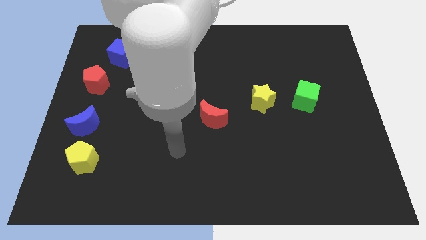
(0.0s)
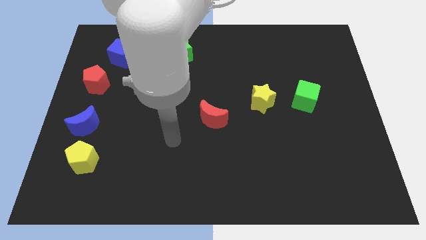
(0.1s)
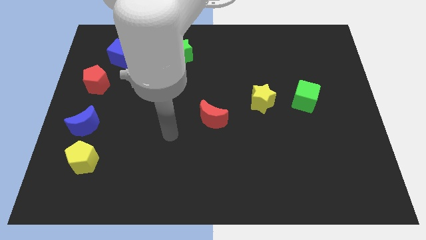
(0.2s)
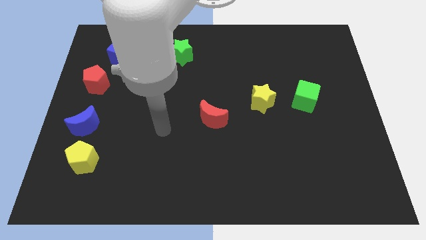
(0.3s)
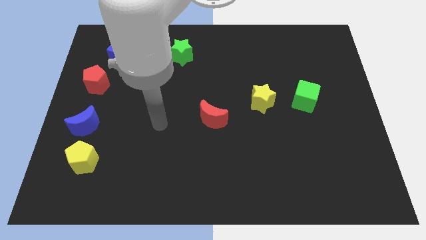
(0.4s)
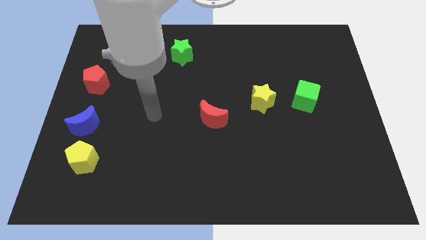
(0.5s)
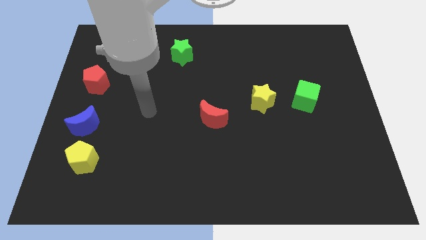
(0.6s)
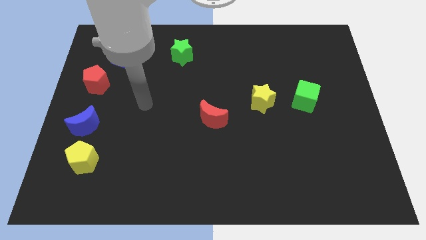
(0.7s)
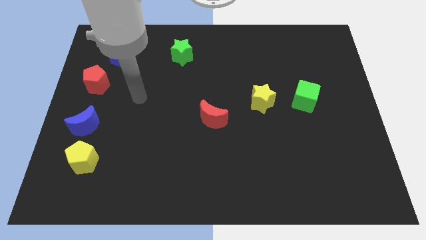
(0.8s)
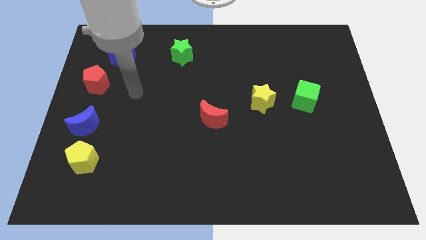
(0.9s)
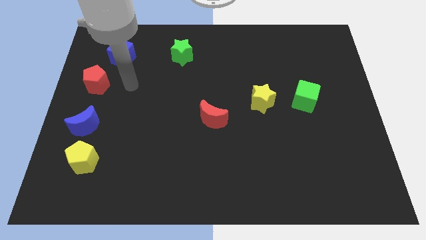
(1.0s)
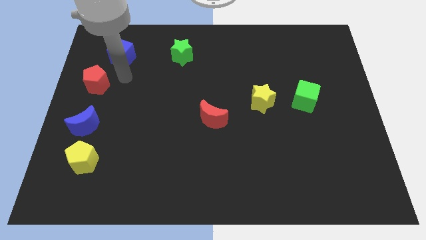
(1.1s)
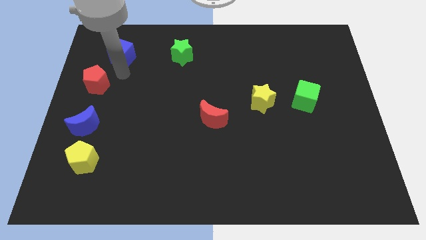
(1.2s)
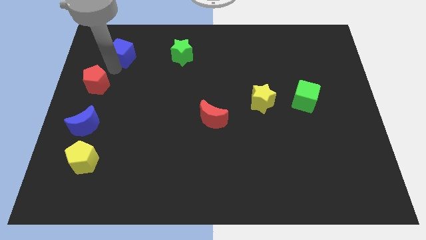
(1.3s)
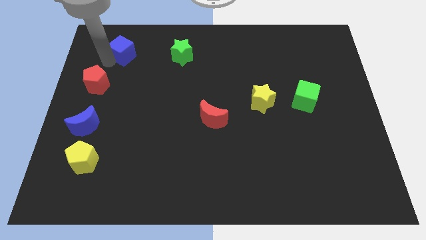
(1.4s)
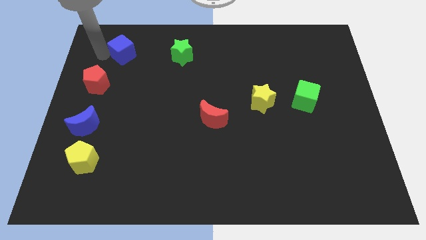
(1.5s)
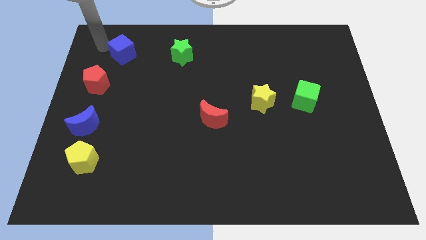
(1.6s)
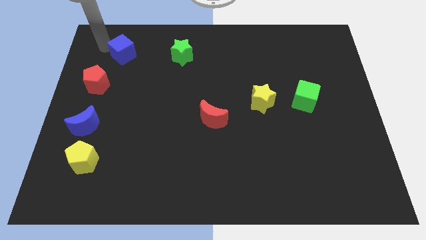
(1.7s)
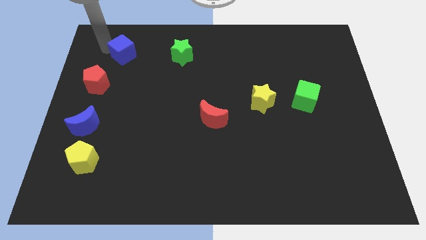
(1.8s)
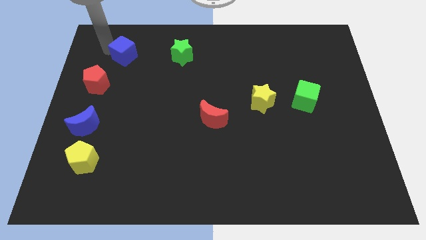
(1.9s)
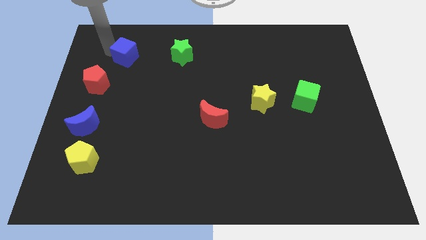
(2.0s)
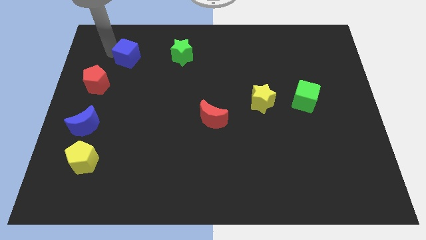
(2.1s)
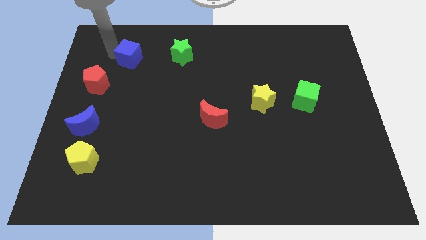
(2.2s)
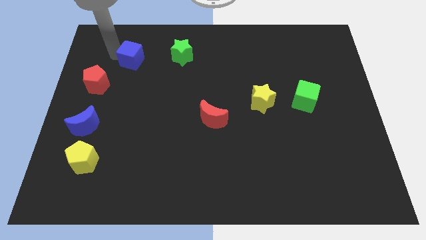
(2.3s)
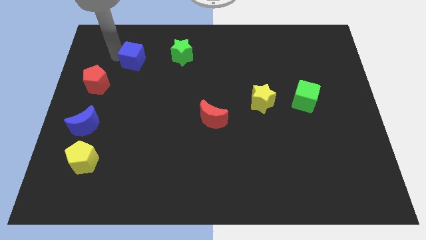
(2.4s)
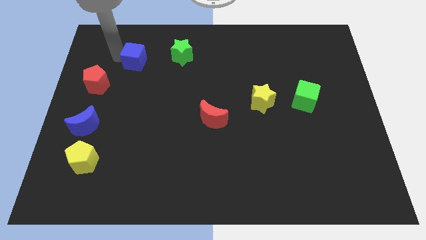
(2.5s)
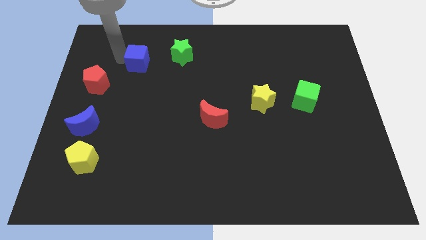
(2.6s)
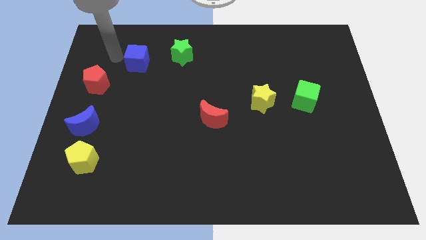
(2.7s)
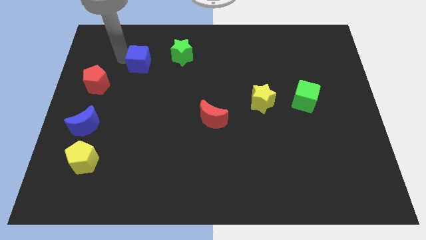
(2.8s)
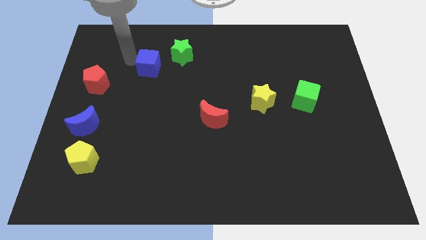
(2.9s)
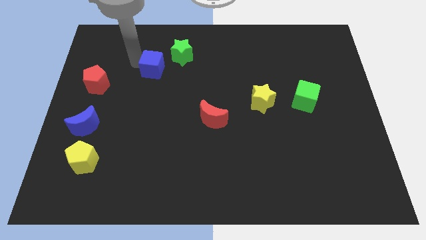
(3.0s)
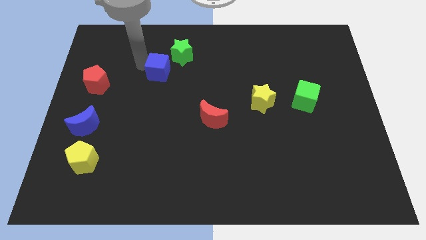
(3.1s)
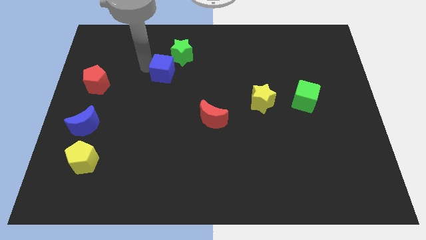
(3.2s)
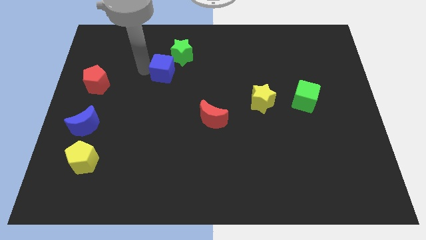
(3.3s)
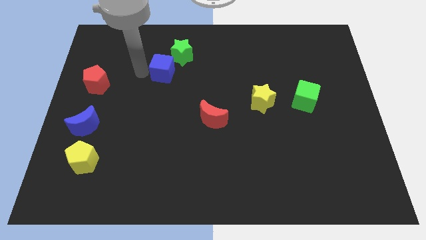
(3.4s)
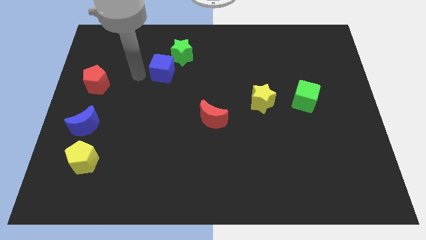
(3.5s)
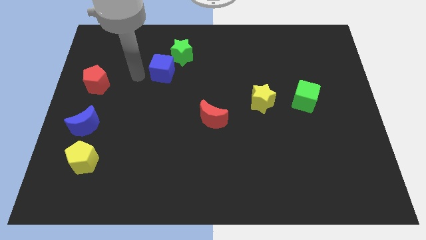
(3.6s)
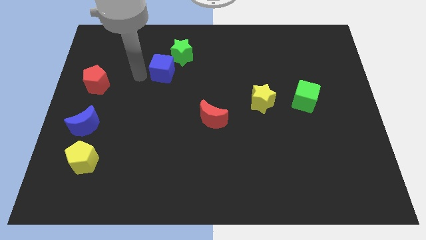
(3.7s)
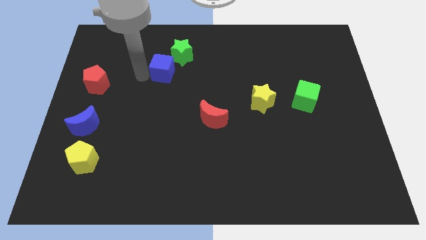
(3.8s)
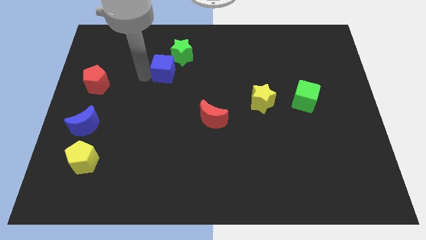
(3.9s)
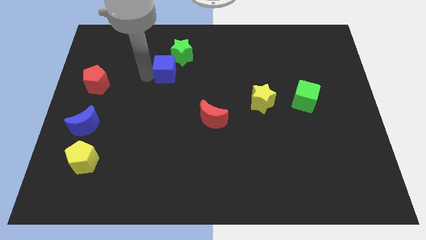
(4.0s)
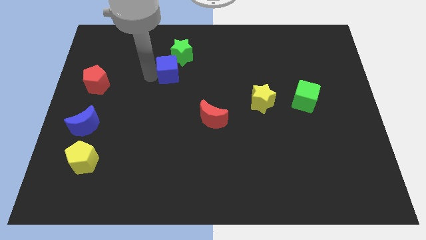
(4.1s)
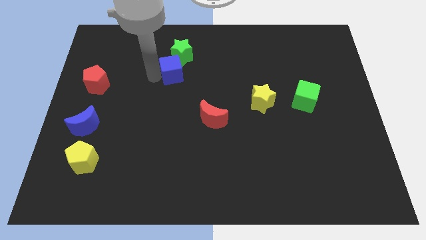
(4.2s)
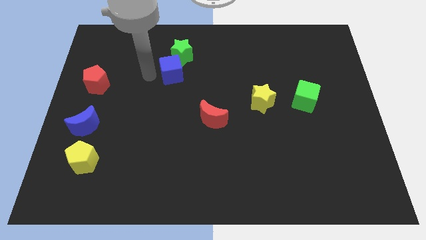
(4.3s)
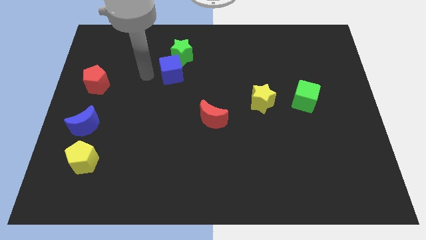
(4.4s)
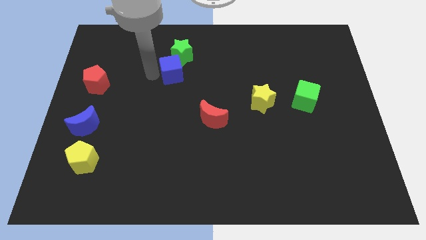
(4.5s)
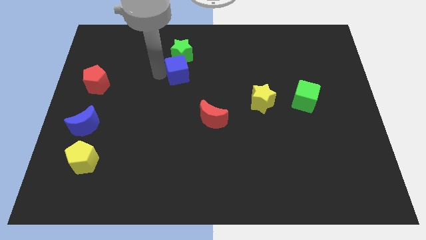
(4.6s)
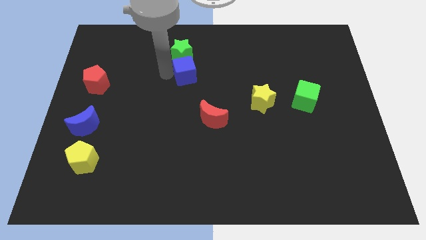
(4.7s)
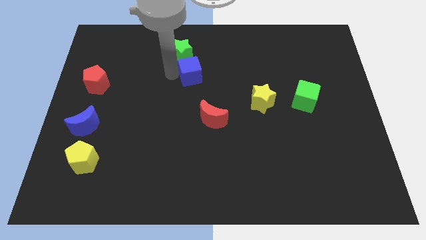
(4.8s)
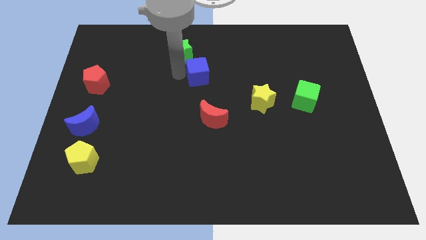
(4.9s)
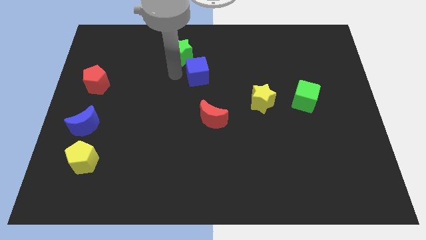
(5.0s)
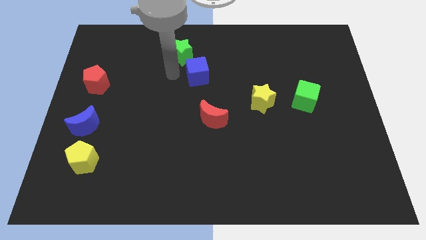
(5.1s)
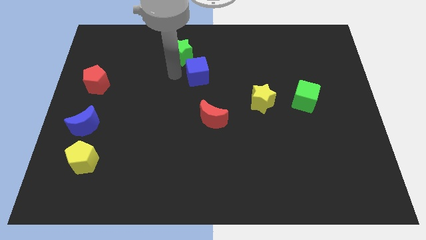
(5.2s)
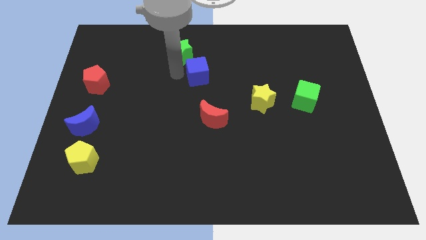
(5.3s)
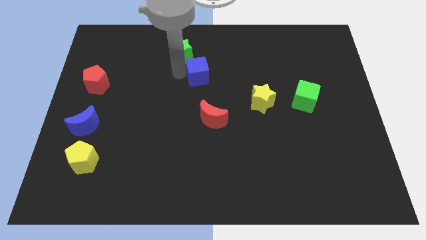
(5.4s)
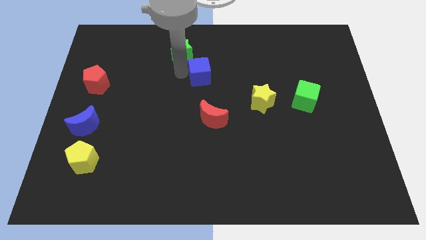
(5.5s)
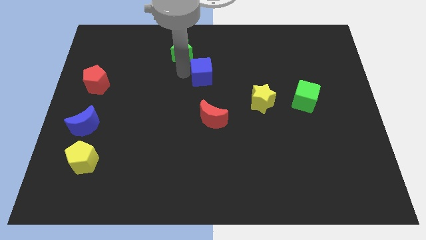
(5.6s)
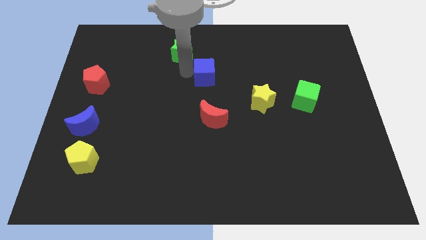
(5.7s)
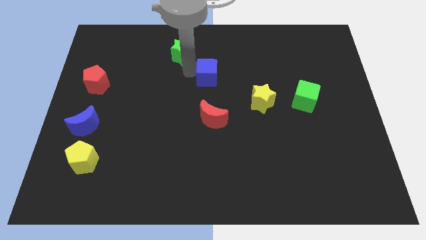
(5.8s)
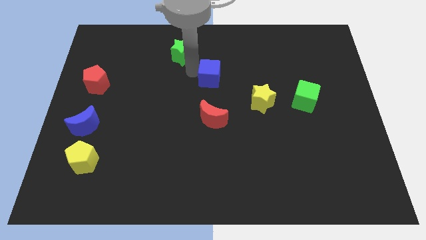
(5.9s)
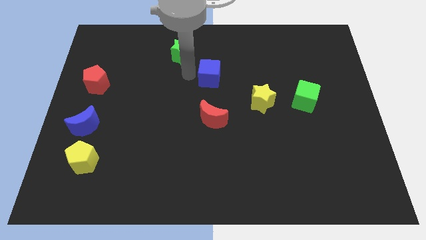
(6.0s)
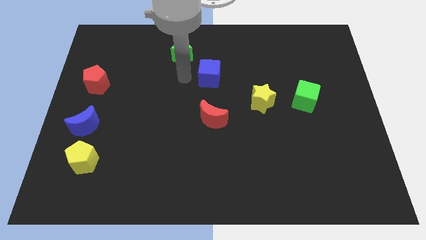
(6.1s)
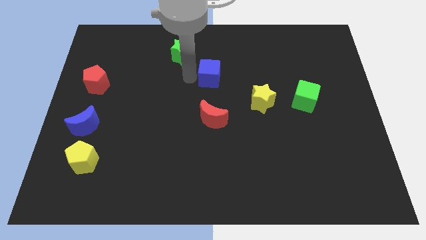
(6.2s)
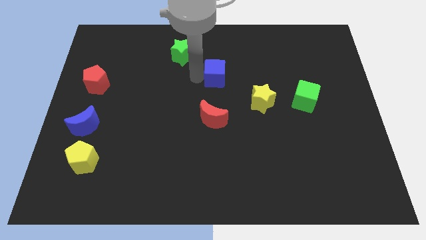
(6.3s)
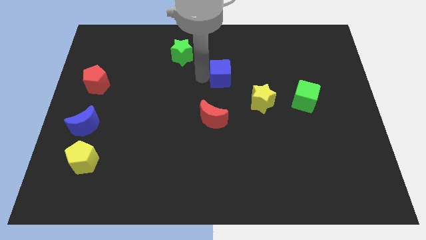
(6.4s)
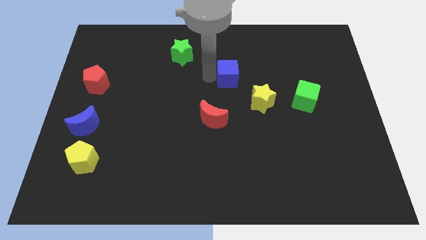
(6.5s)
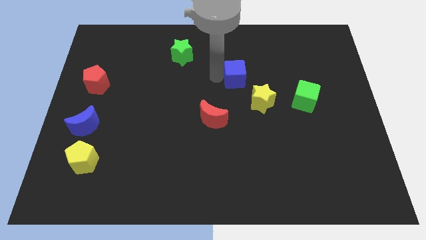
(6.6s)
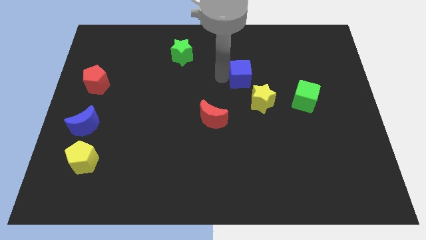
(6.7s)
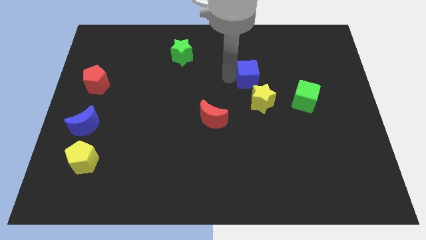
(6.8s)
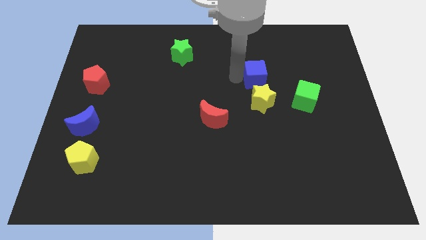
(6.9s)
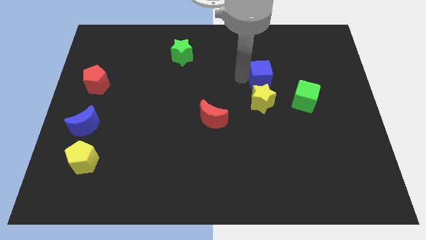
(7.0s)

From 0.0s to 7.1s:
slide the blue cube to the top left of the green cube

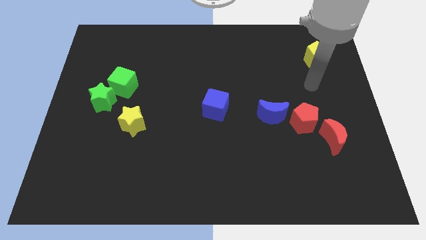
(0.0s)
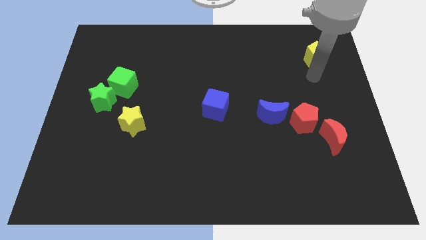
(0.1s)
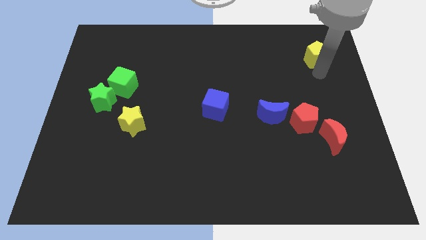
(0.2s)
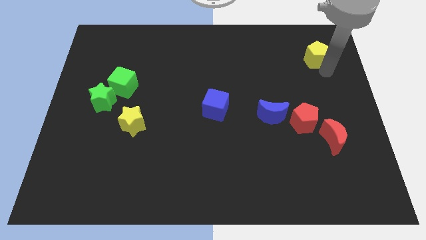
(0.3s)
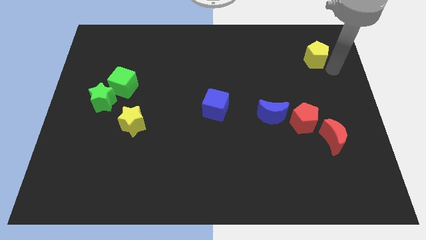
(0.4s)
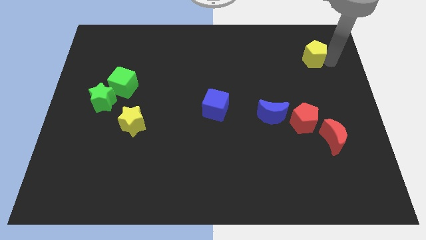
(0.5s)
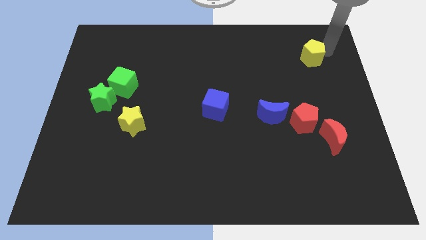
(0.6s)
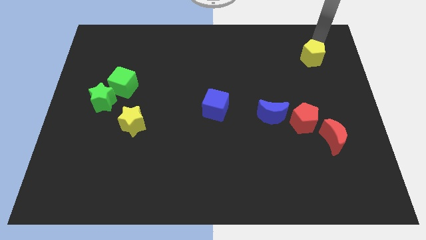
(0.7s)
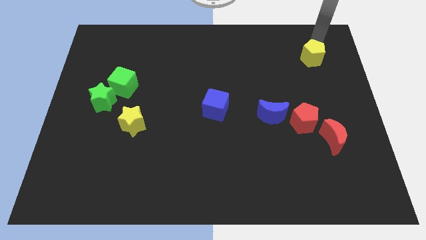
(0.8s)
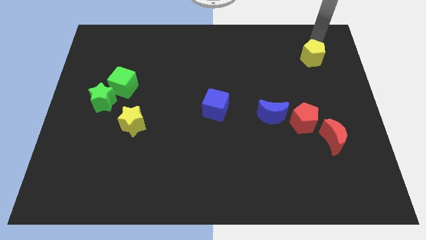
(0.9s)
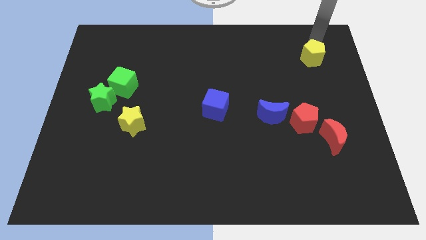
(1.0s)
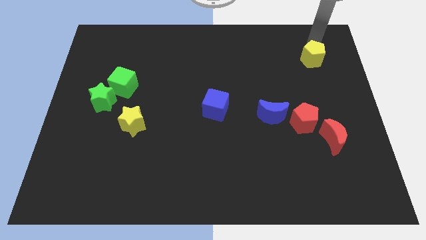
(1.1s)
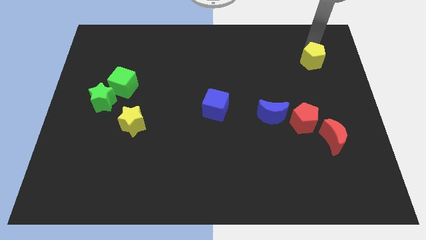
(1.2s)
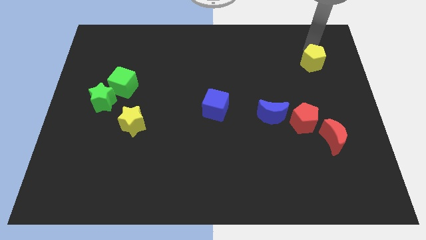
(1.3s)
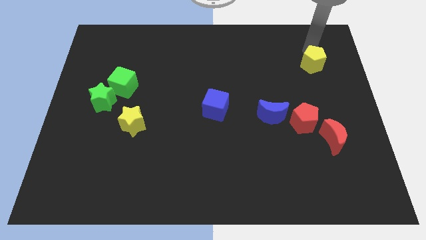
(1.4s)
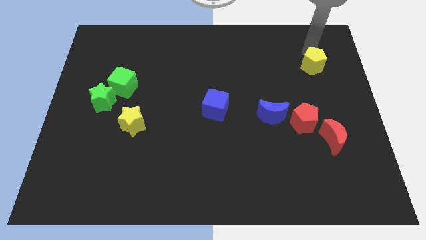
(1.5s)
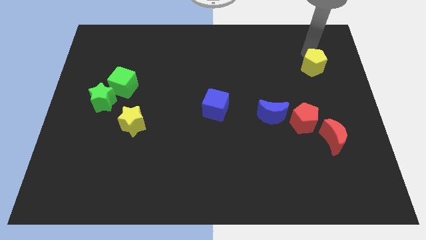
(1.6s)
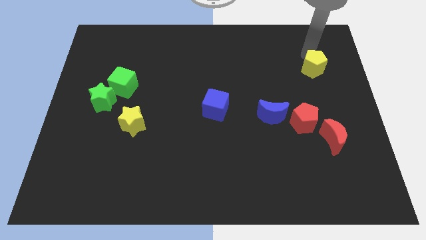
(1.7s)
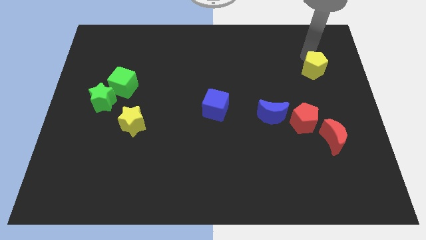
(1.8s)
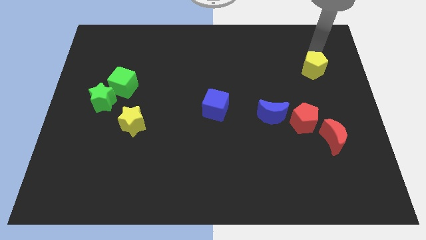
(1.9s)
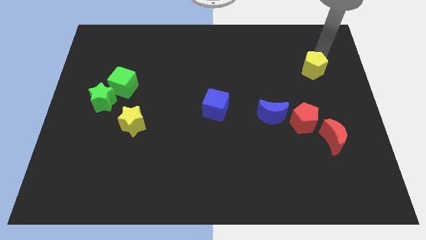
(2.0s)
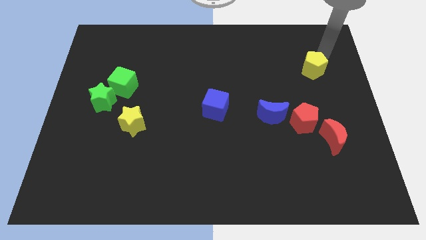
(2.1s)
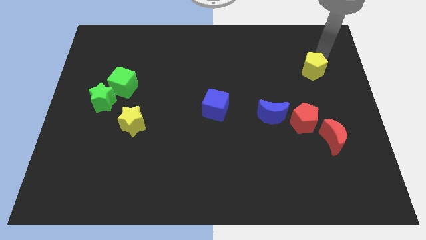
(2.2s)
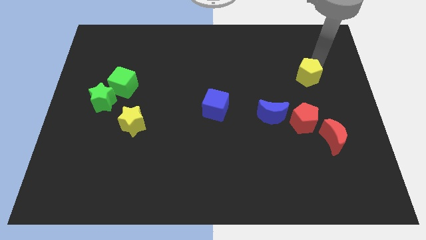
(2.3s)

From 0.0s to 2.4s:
put the yellow pentagon to the top of the red pentagon
